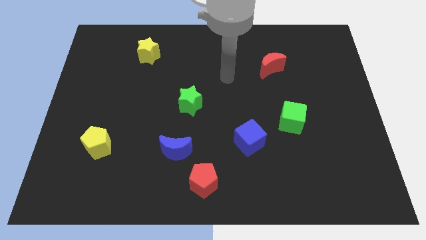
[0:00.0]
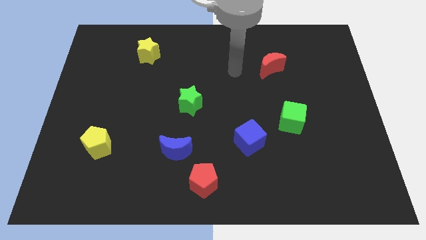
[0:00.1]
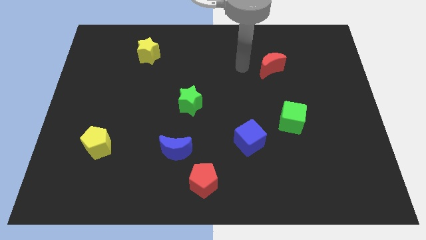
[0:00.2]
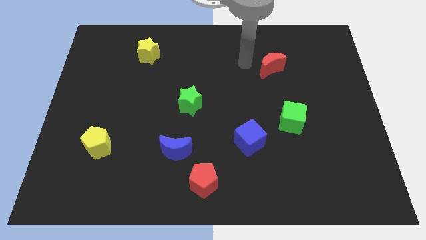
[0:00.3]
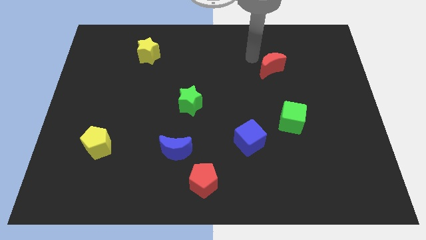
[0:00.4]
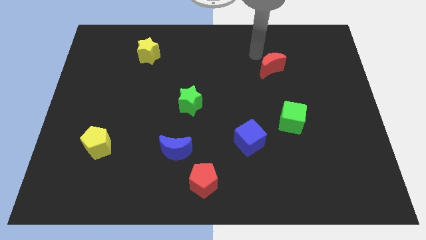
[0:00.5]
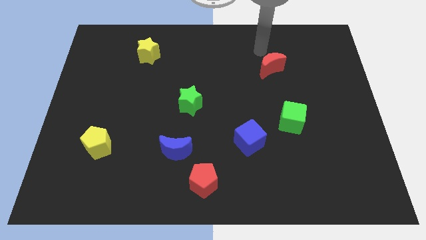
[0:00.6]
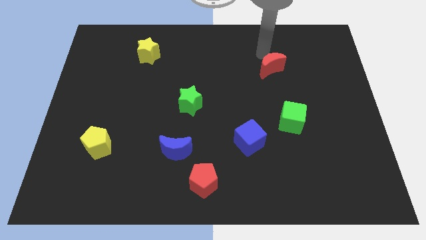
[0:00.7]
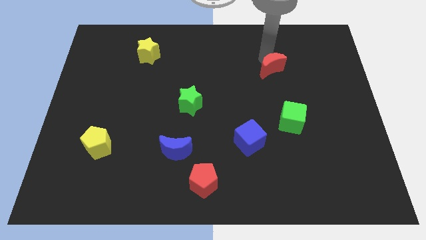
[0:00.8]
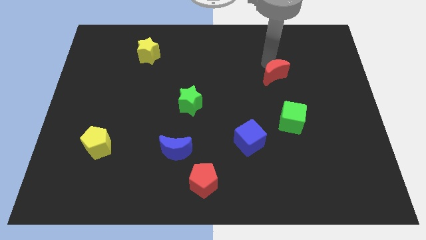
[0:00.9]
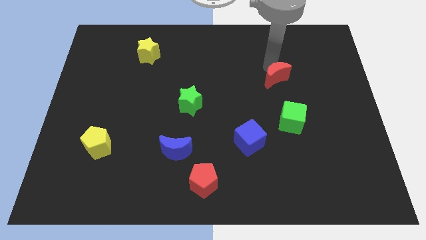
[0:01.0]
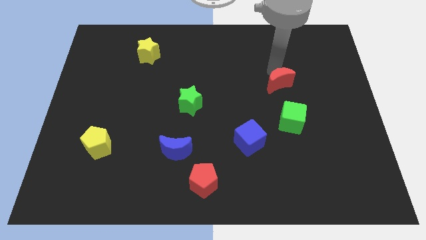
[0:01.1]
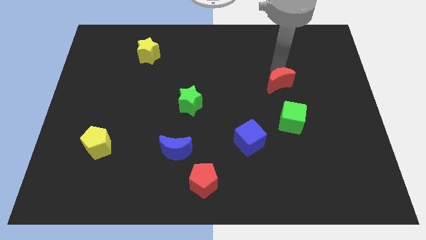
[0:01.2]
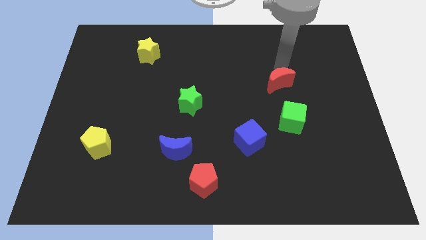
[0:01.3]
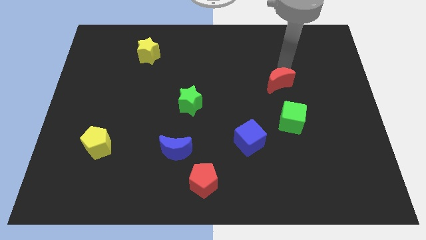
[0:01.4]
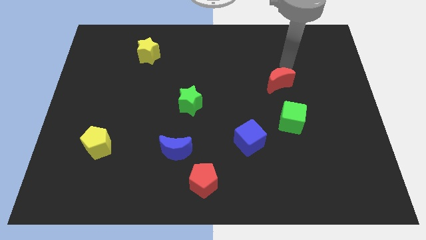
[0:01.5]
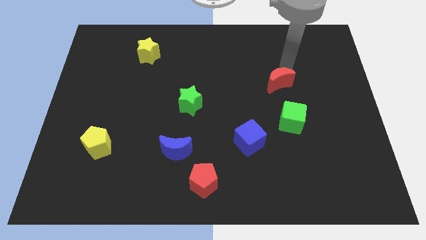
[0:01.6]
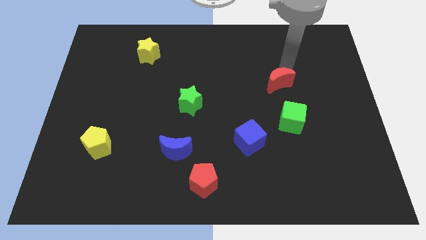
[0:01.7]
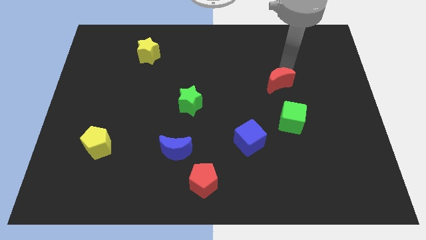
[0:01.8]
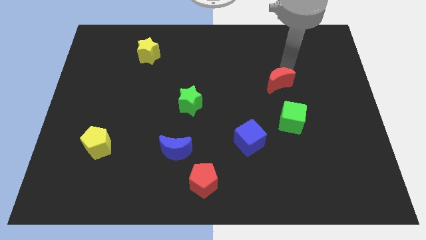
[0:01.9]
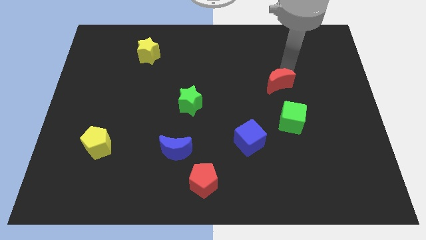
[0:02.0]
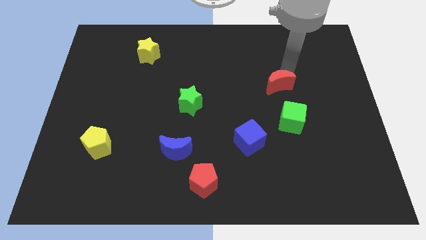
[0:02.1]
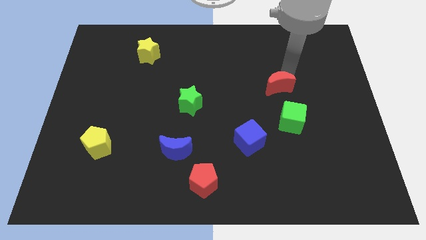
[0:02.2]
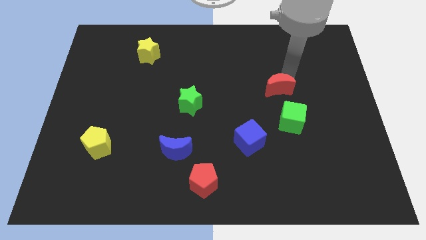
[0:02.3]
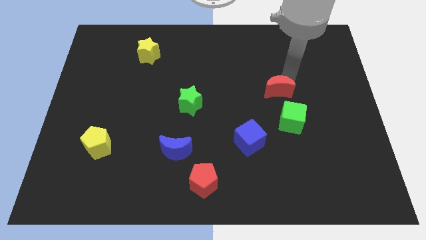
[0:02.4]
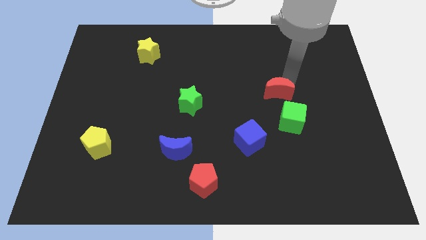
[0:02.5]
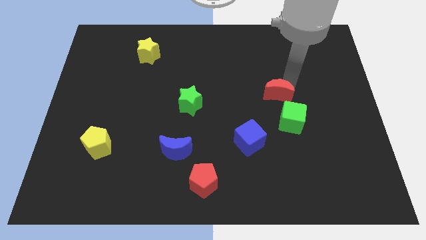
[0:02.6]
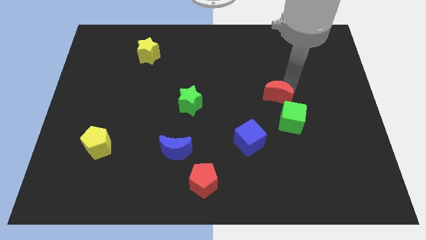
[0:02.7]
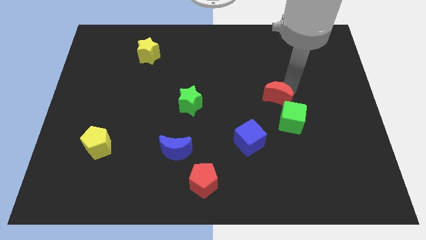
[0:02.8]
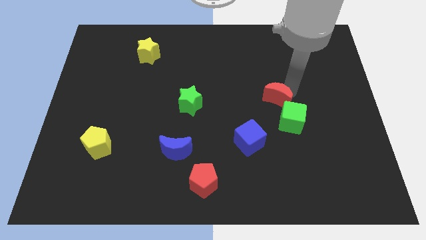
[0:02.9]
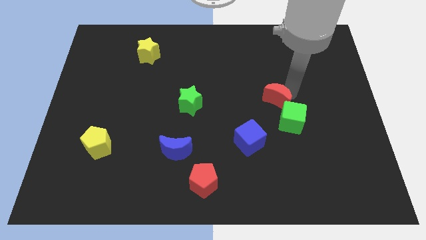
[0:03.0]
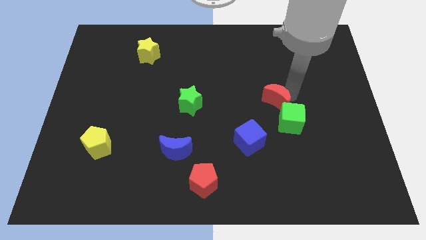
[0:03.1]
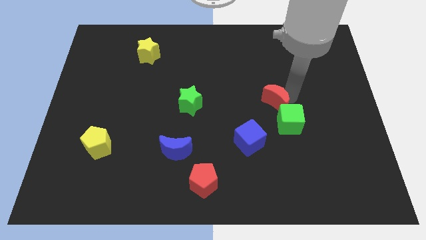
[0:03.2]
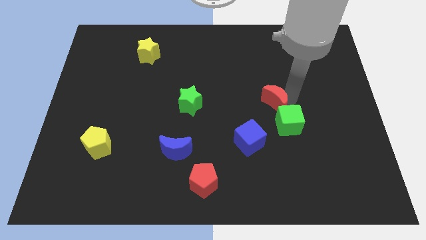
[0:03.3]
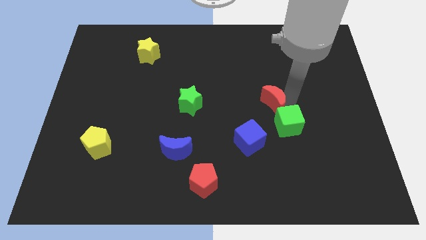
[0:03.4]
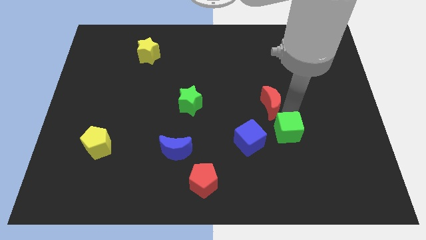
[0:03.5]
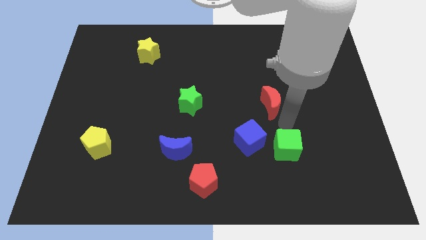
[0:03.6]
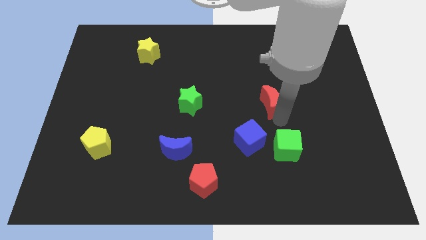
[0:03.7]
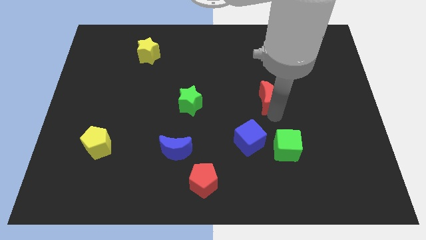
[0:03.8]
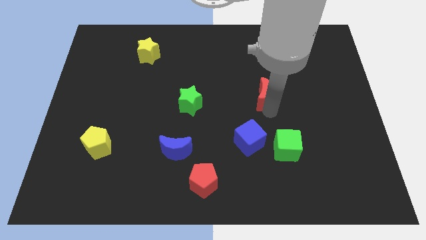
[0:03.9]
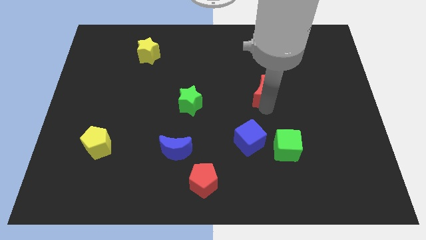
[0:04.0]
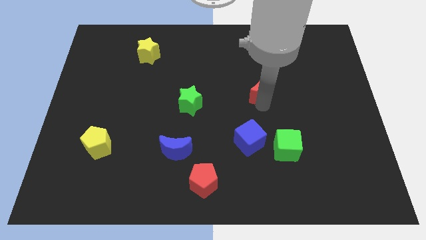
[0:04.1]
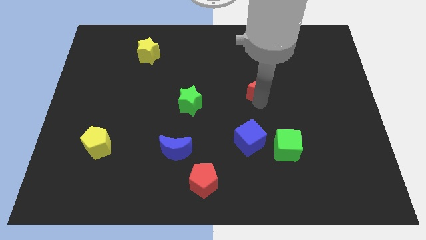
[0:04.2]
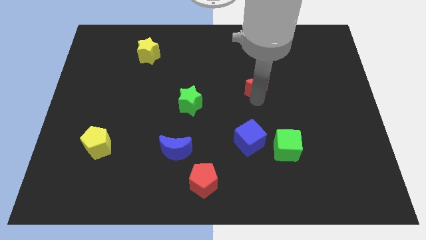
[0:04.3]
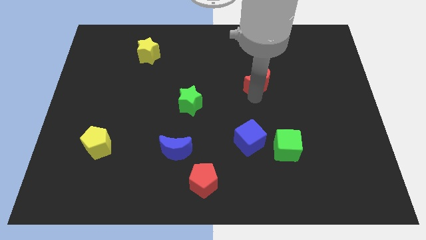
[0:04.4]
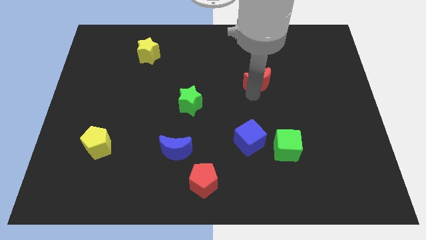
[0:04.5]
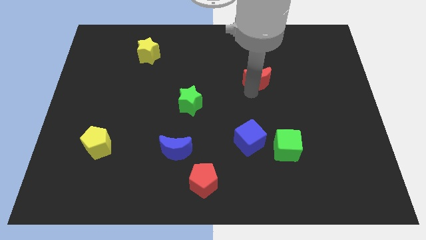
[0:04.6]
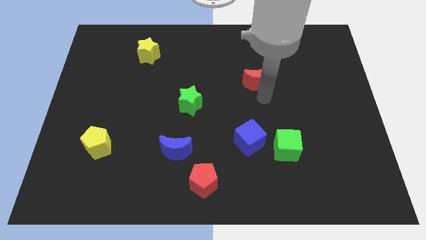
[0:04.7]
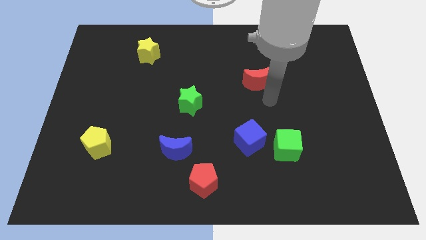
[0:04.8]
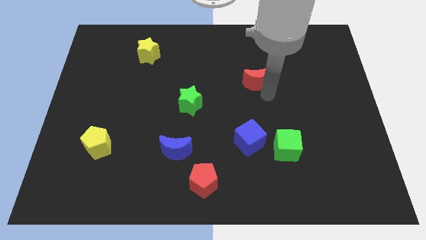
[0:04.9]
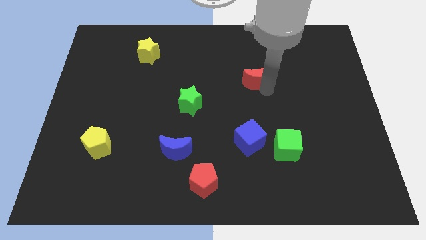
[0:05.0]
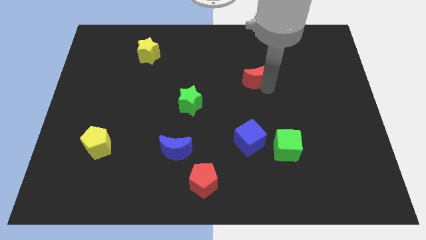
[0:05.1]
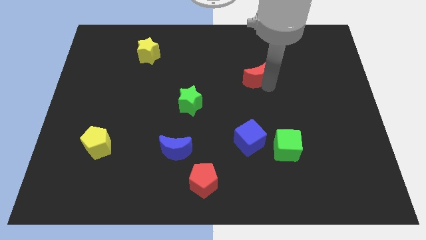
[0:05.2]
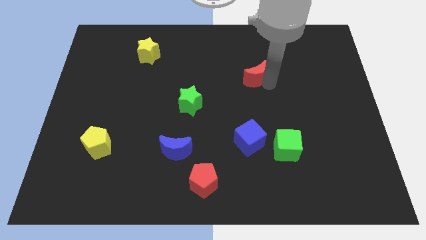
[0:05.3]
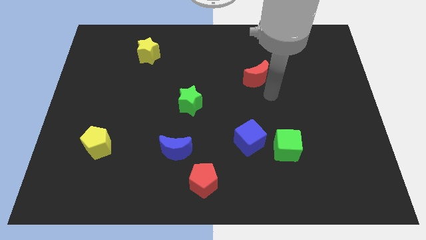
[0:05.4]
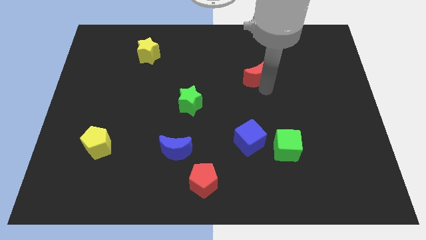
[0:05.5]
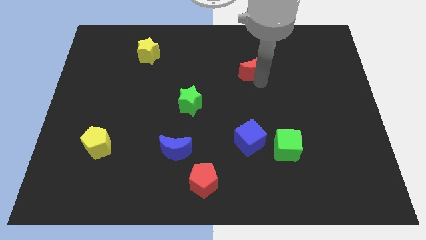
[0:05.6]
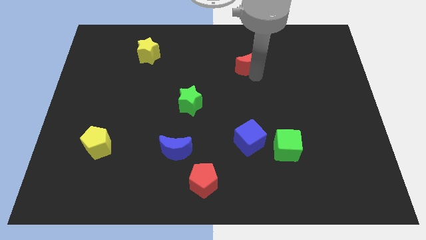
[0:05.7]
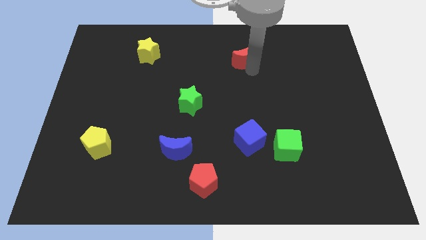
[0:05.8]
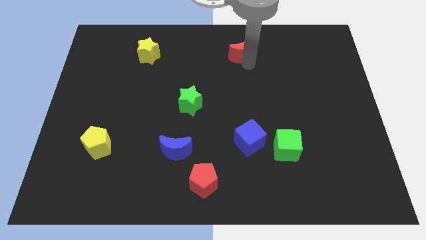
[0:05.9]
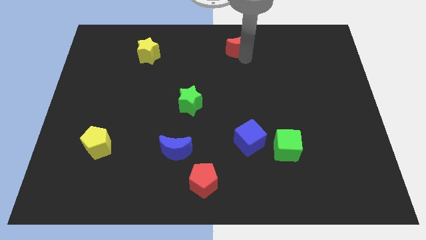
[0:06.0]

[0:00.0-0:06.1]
move the red moon to the towards your base
